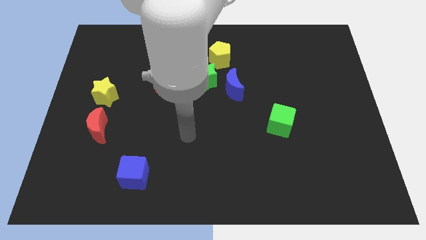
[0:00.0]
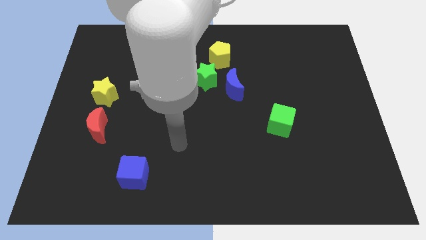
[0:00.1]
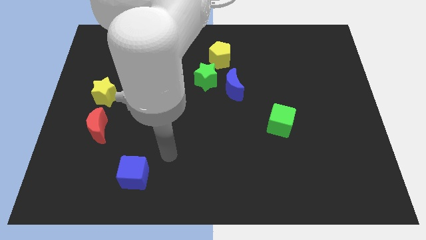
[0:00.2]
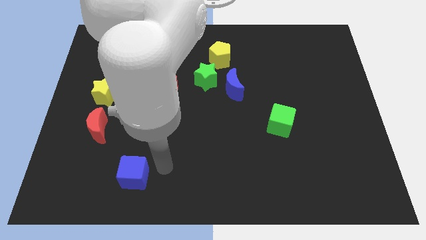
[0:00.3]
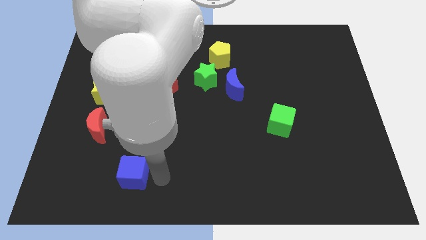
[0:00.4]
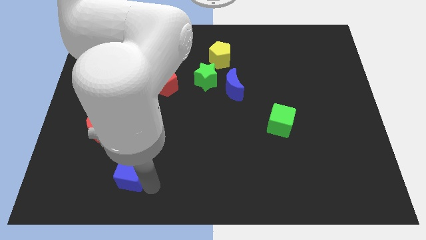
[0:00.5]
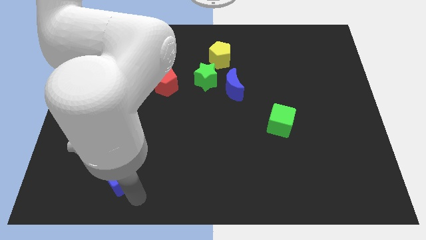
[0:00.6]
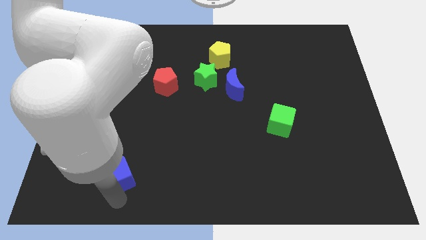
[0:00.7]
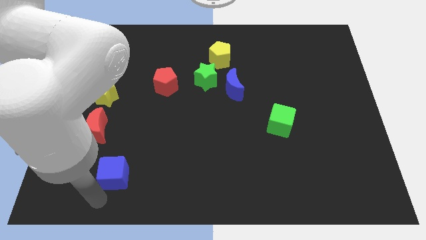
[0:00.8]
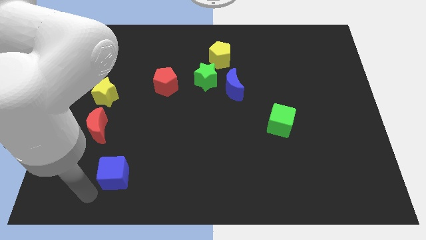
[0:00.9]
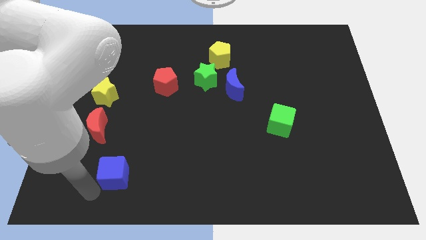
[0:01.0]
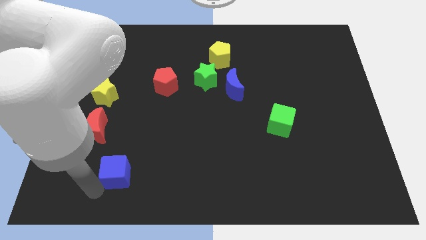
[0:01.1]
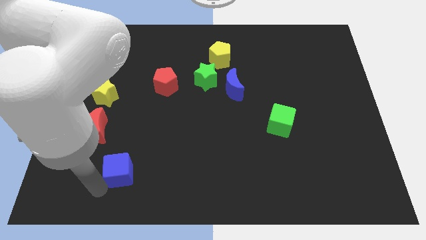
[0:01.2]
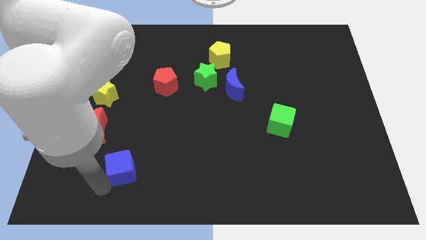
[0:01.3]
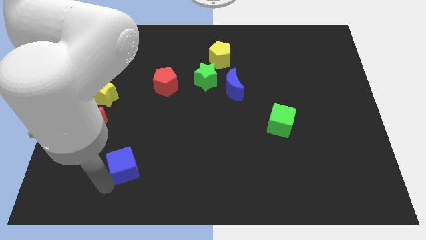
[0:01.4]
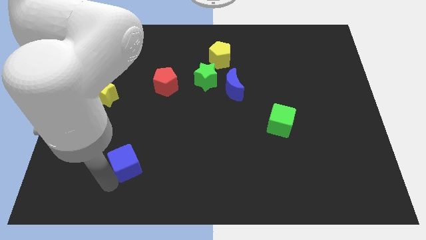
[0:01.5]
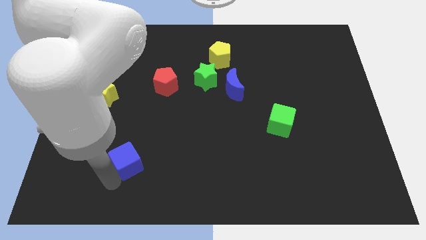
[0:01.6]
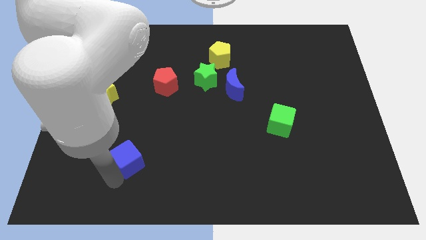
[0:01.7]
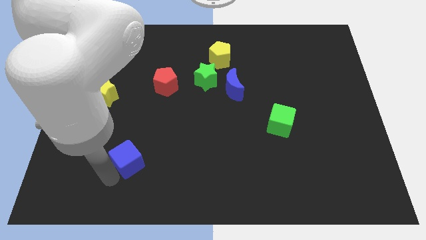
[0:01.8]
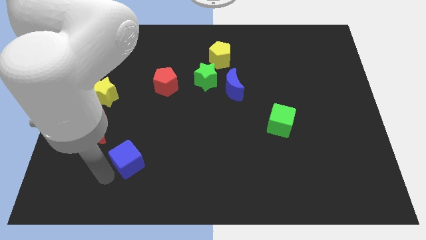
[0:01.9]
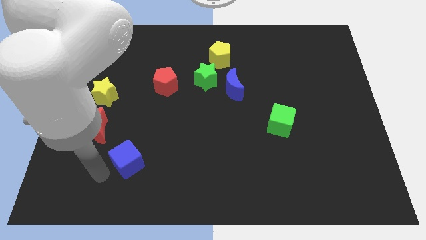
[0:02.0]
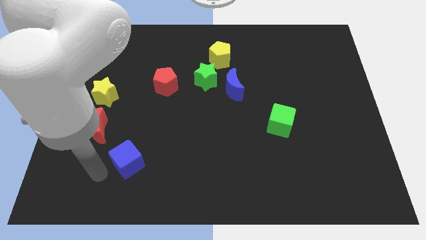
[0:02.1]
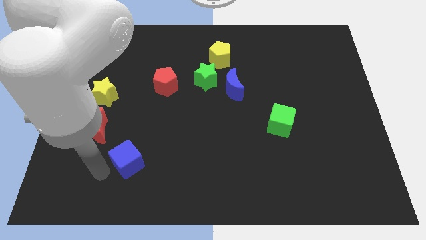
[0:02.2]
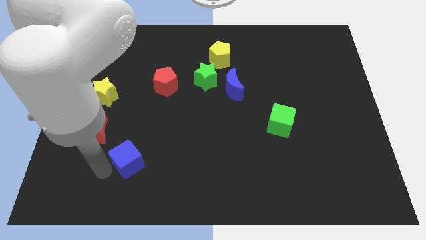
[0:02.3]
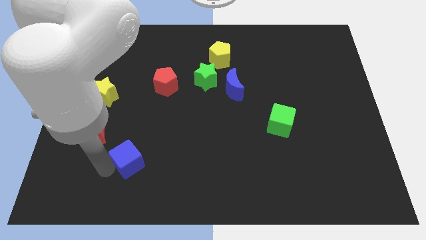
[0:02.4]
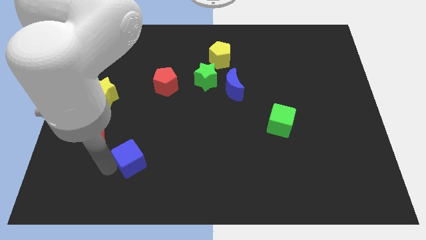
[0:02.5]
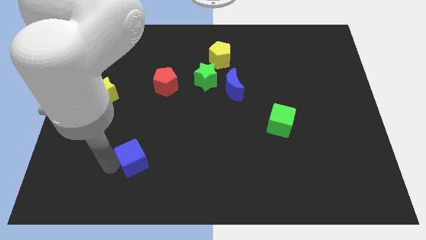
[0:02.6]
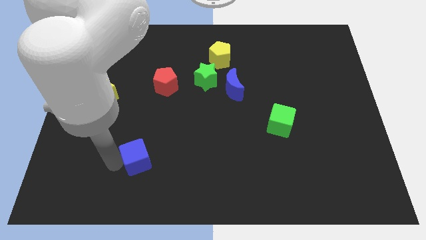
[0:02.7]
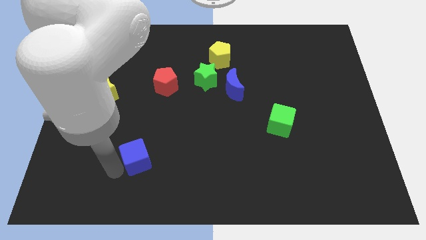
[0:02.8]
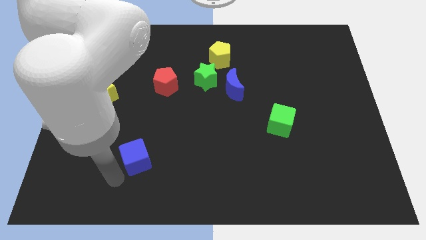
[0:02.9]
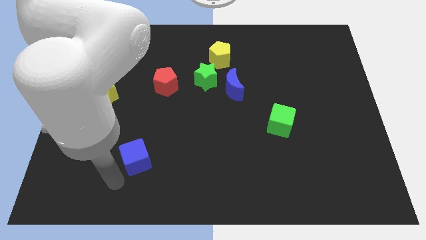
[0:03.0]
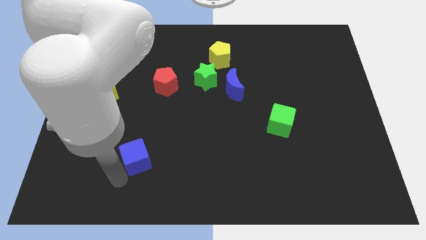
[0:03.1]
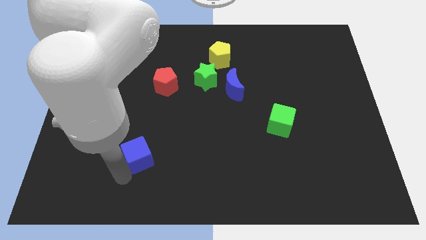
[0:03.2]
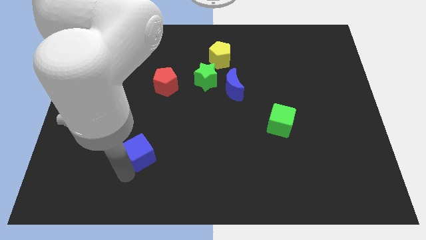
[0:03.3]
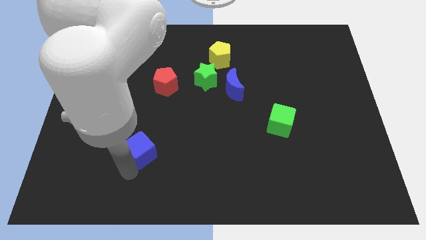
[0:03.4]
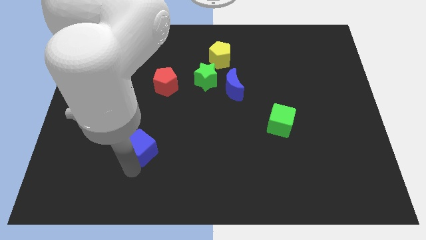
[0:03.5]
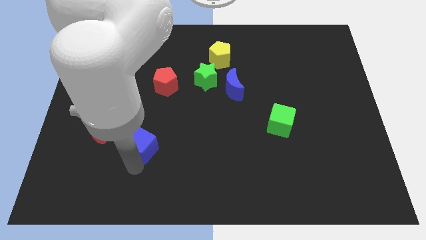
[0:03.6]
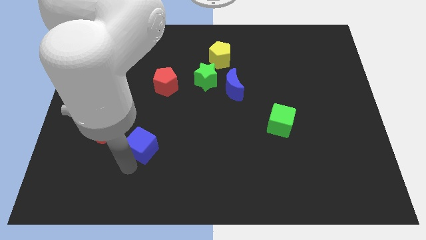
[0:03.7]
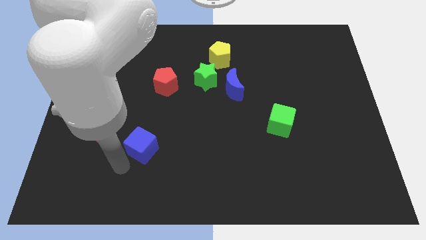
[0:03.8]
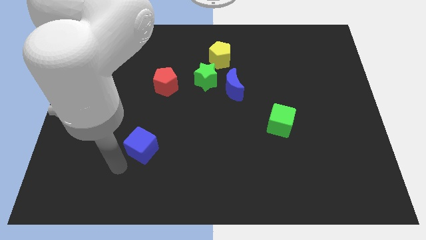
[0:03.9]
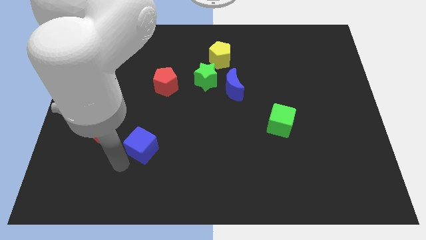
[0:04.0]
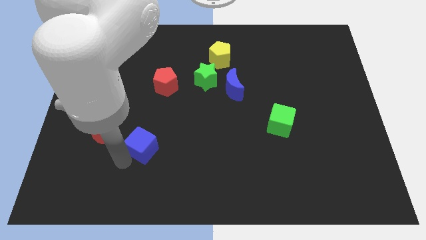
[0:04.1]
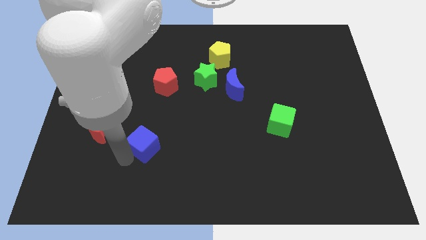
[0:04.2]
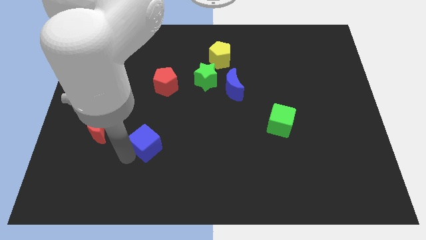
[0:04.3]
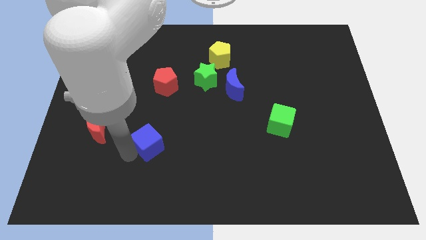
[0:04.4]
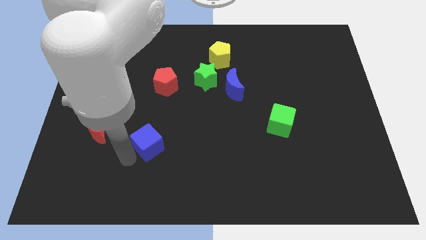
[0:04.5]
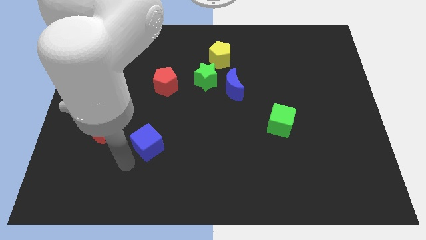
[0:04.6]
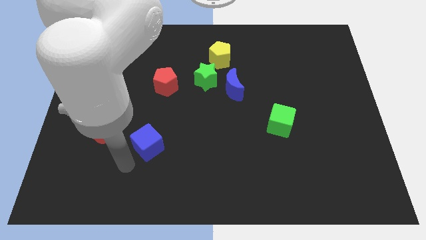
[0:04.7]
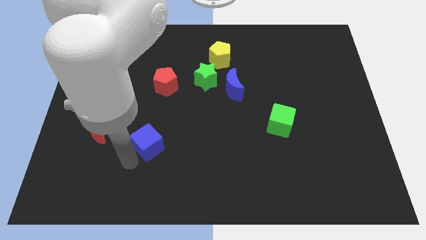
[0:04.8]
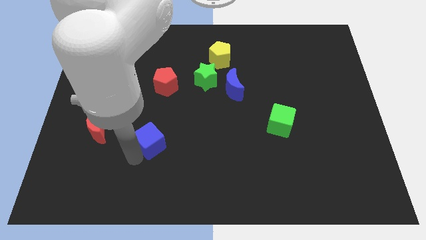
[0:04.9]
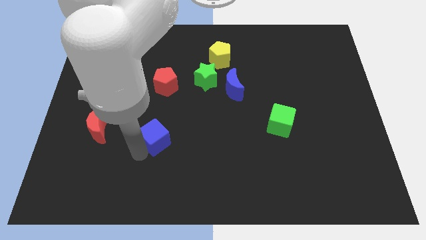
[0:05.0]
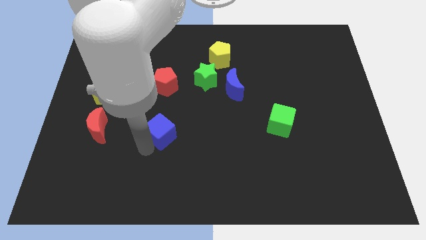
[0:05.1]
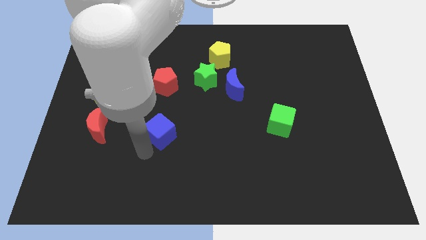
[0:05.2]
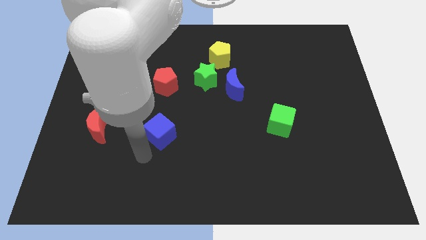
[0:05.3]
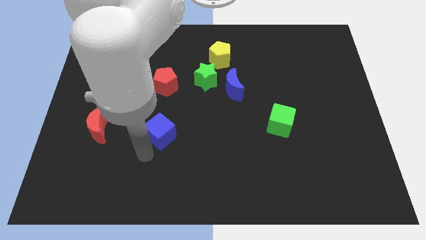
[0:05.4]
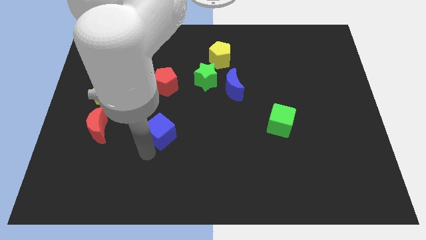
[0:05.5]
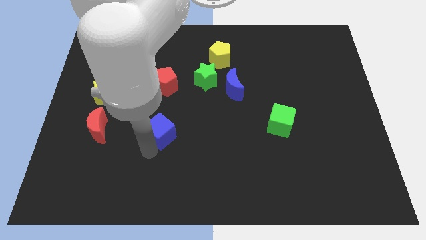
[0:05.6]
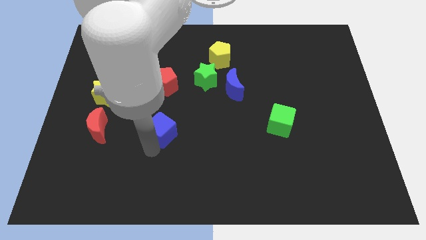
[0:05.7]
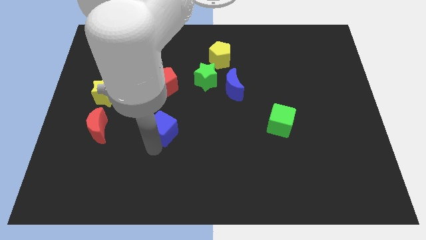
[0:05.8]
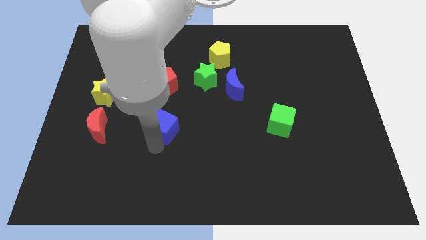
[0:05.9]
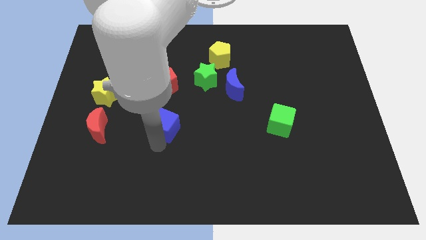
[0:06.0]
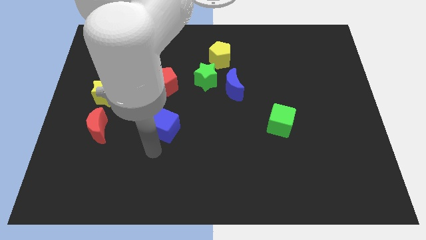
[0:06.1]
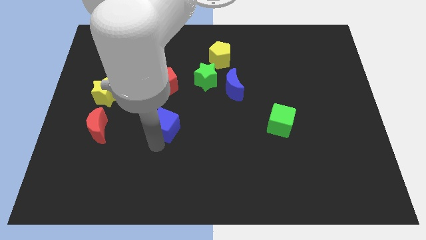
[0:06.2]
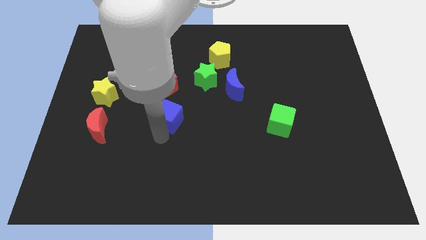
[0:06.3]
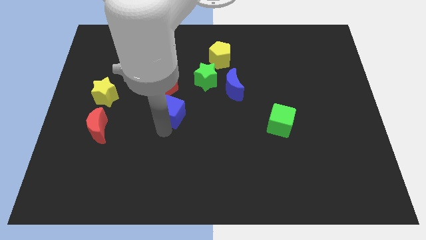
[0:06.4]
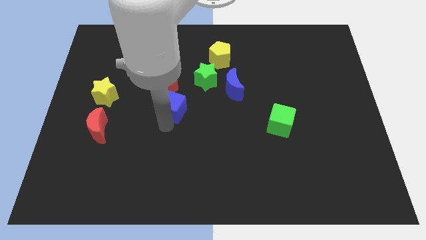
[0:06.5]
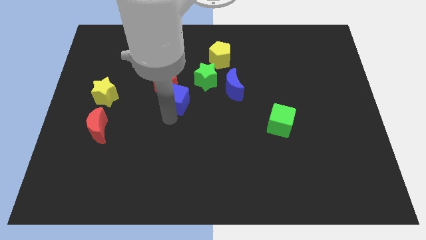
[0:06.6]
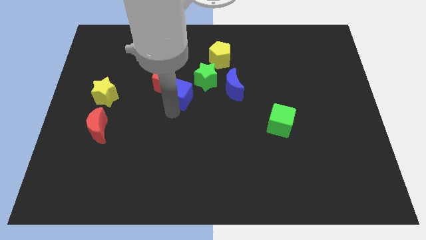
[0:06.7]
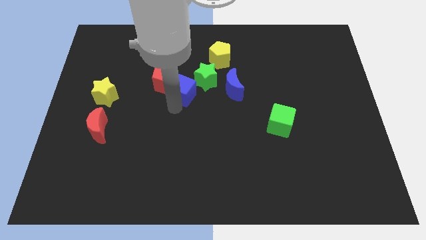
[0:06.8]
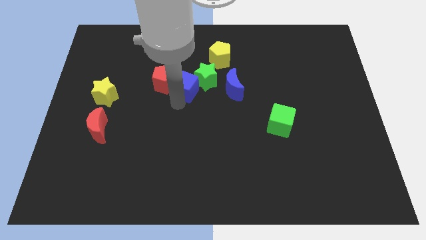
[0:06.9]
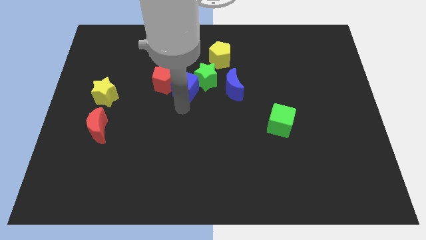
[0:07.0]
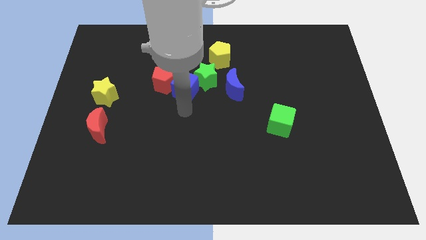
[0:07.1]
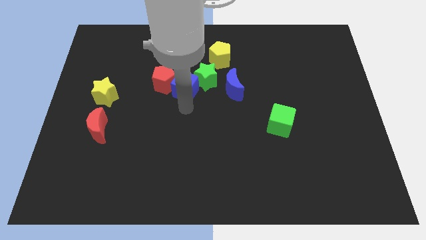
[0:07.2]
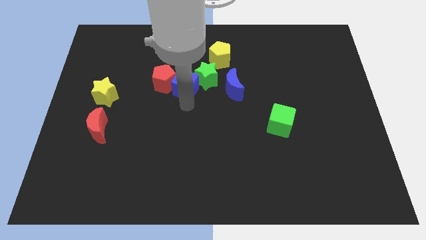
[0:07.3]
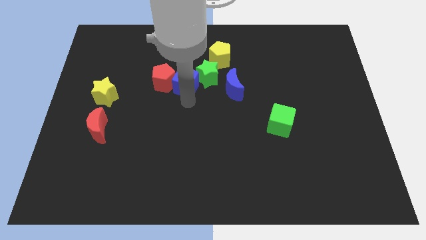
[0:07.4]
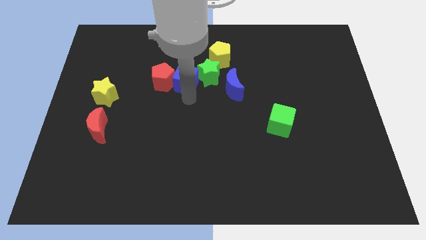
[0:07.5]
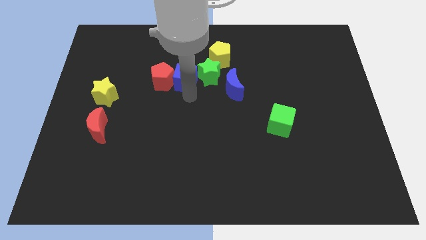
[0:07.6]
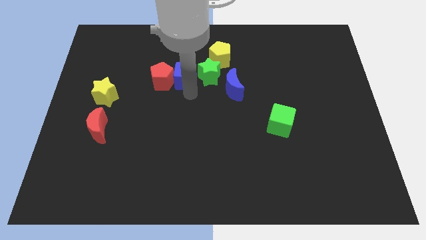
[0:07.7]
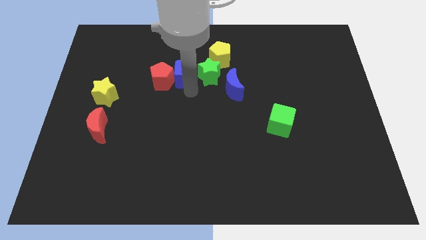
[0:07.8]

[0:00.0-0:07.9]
put the blue cube to the top left side of the green star
